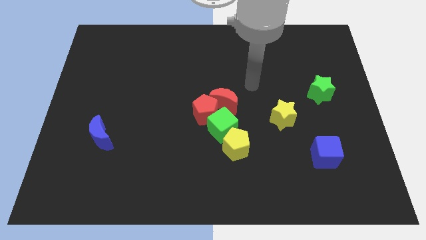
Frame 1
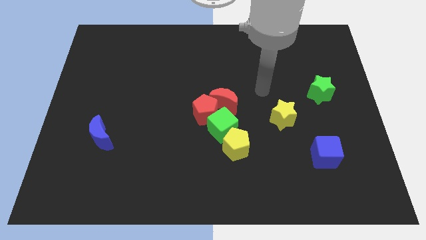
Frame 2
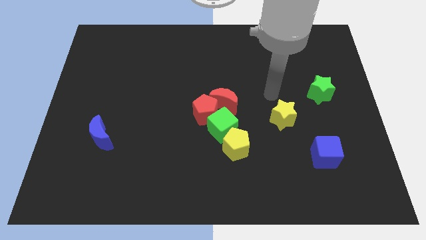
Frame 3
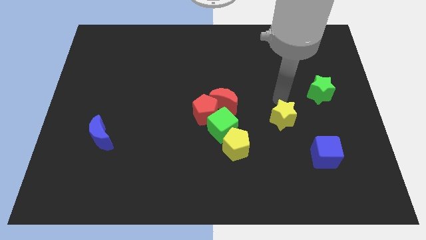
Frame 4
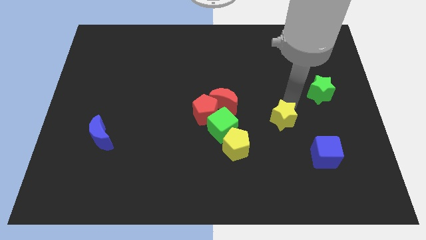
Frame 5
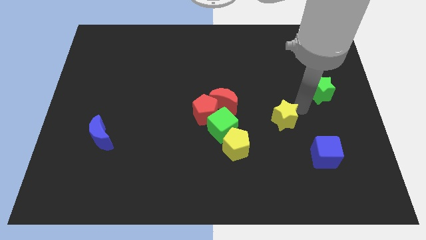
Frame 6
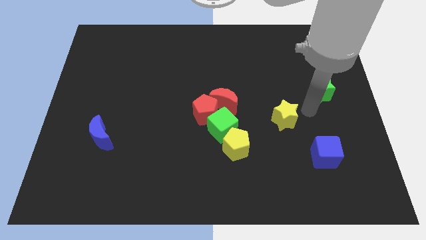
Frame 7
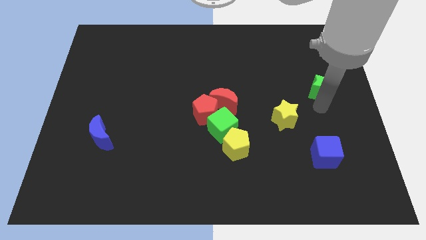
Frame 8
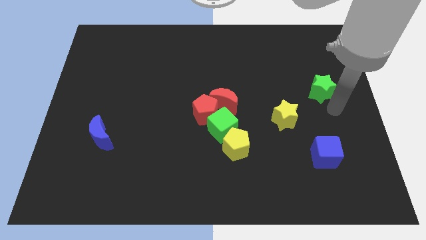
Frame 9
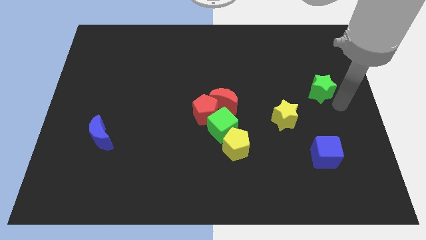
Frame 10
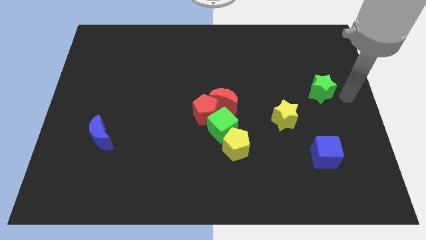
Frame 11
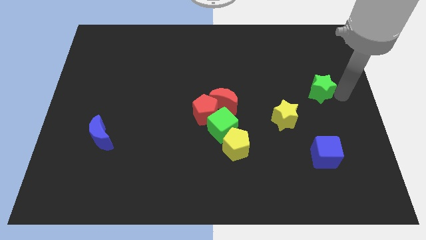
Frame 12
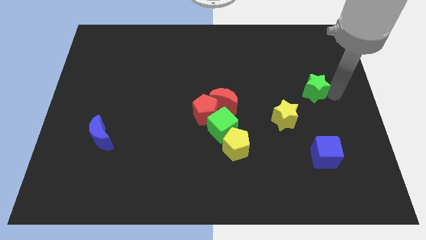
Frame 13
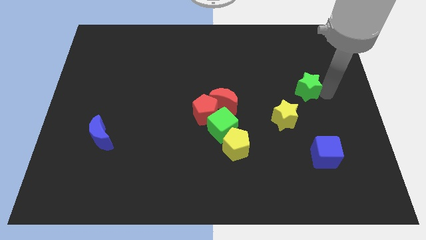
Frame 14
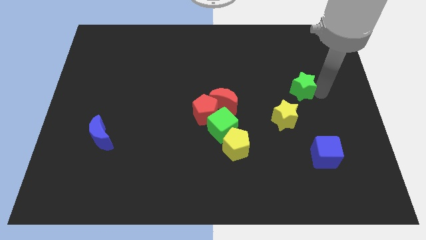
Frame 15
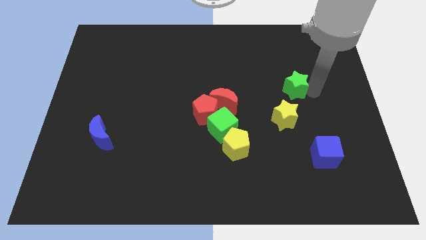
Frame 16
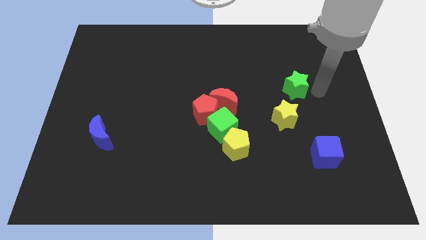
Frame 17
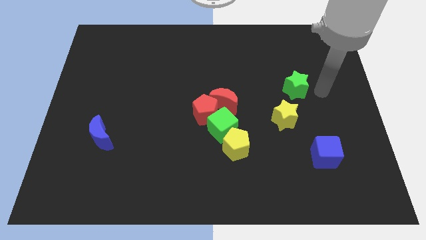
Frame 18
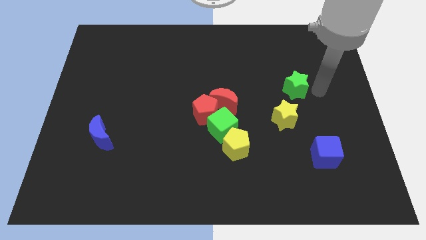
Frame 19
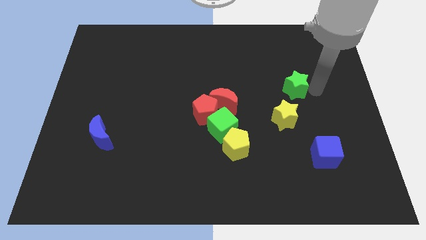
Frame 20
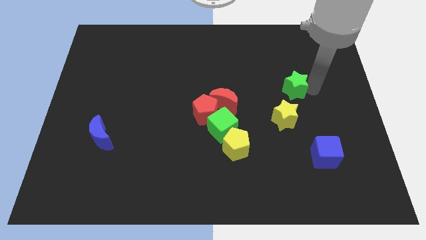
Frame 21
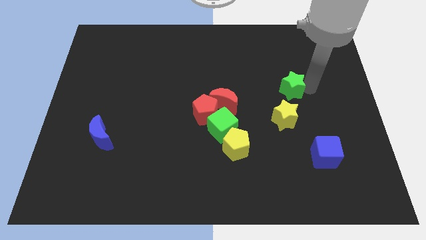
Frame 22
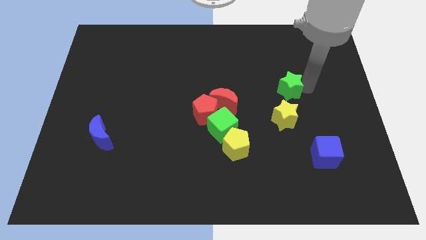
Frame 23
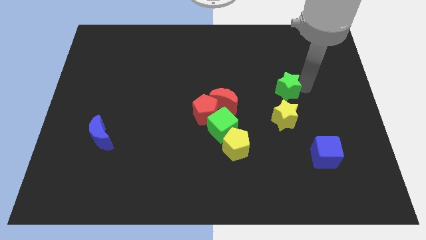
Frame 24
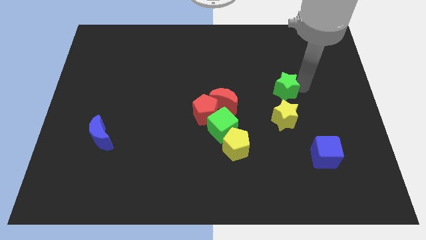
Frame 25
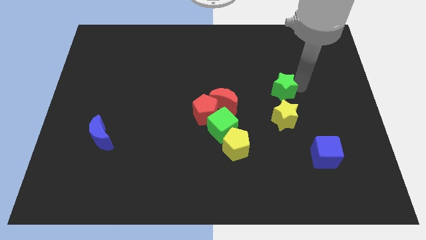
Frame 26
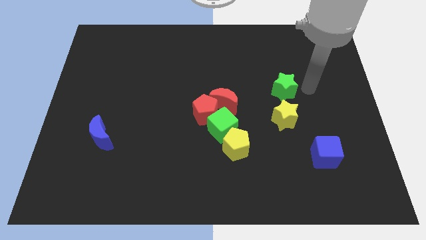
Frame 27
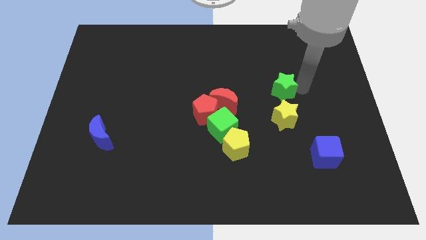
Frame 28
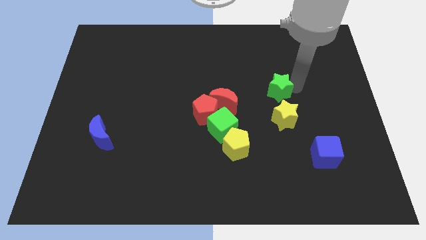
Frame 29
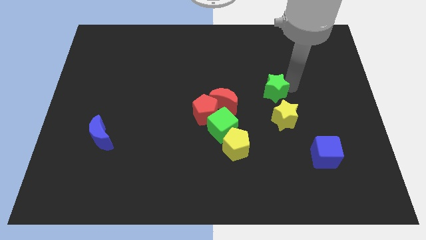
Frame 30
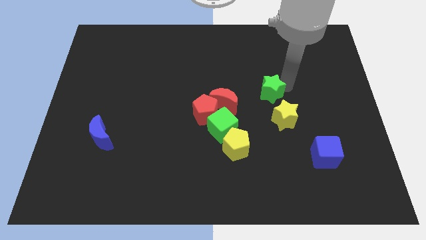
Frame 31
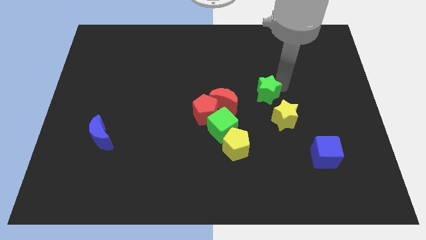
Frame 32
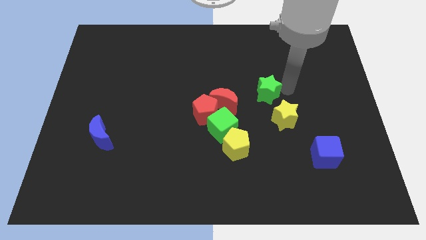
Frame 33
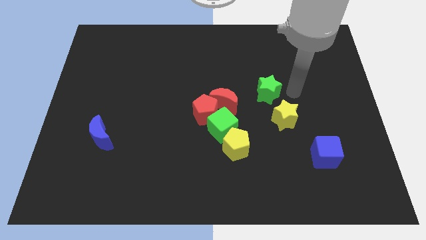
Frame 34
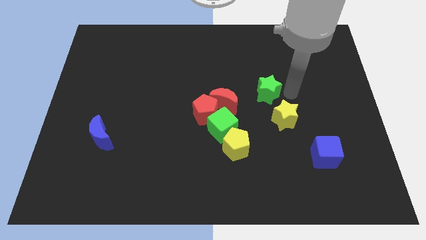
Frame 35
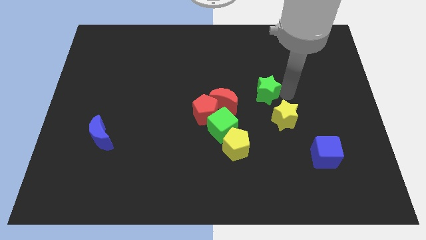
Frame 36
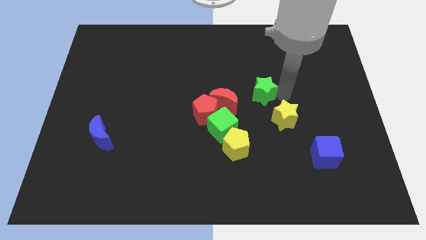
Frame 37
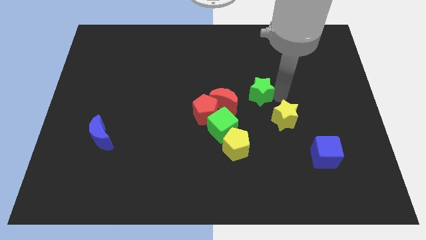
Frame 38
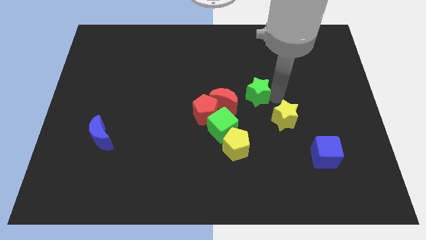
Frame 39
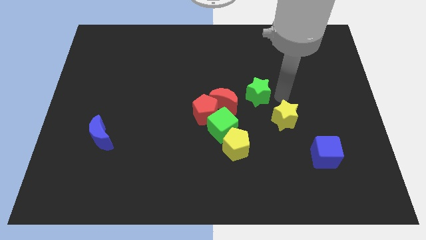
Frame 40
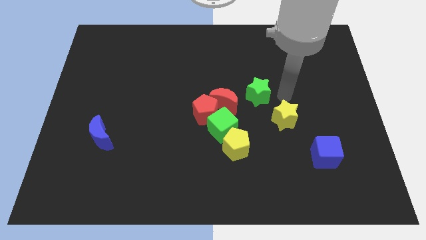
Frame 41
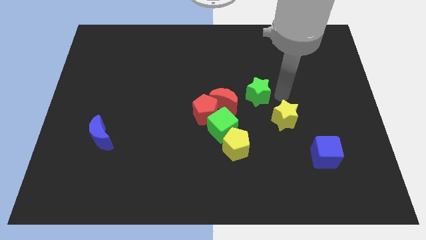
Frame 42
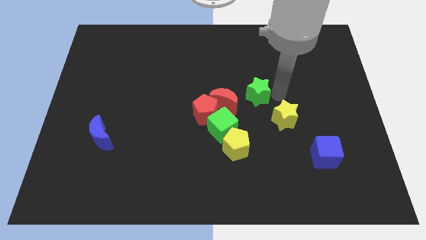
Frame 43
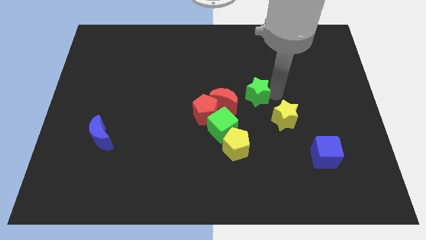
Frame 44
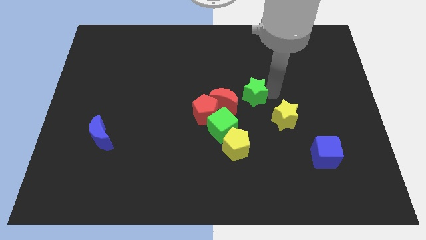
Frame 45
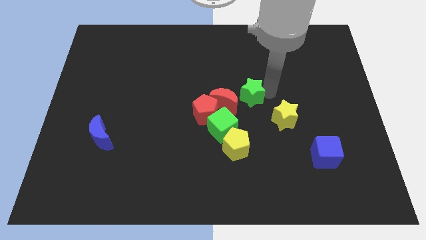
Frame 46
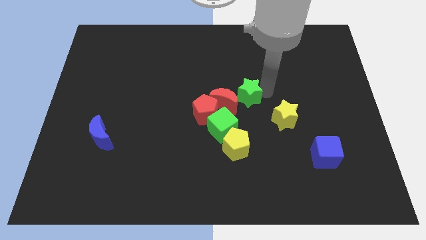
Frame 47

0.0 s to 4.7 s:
slide the green star to the top right side of the red pentagon

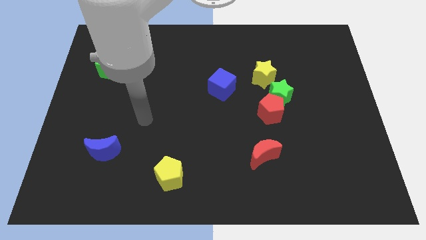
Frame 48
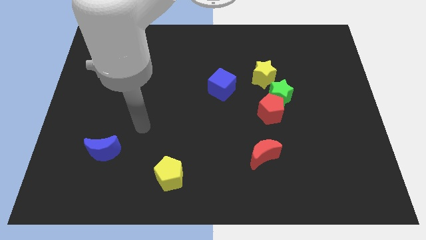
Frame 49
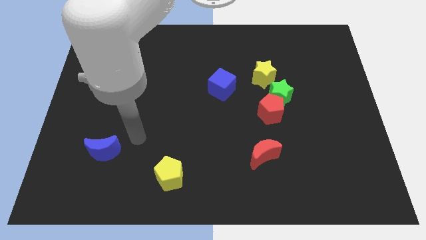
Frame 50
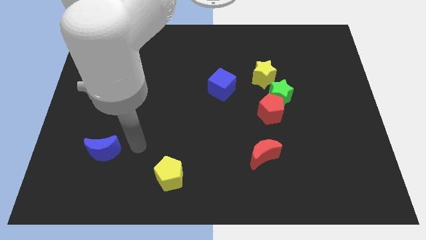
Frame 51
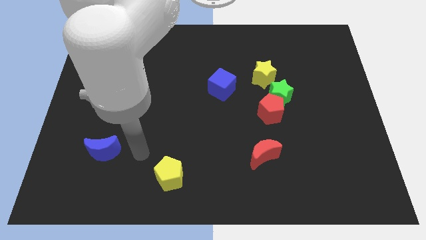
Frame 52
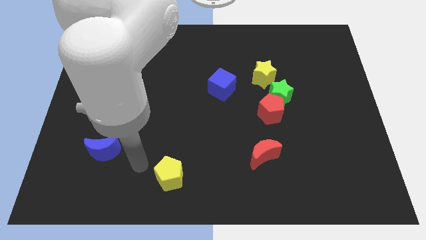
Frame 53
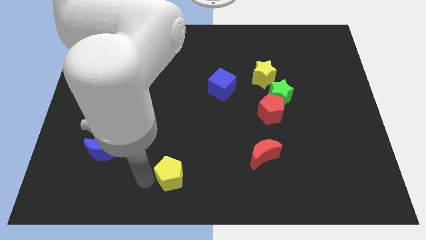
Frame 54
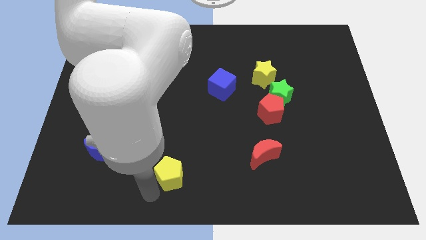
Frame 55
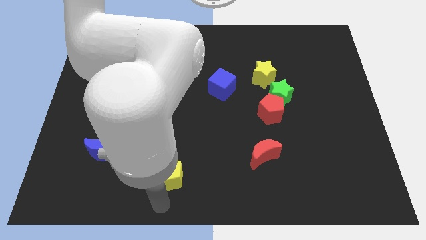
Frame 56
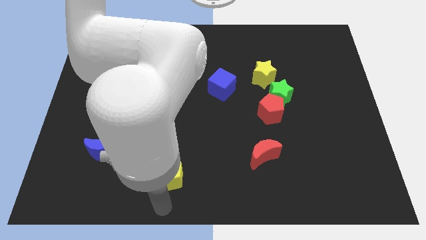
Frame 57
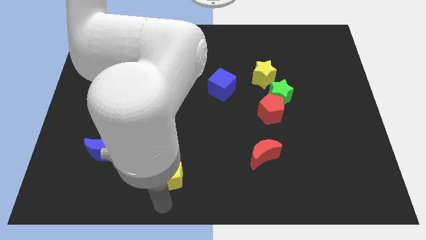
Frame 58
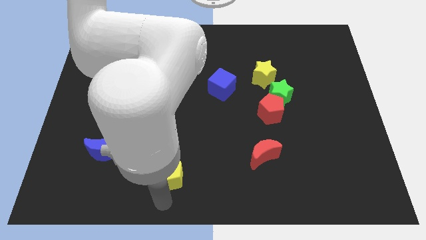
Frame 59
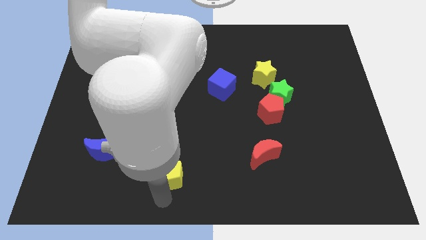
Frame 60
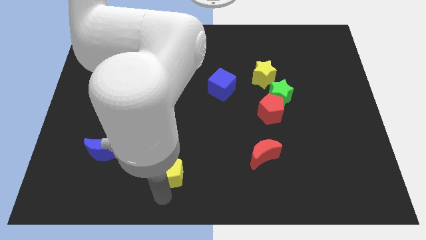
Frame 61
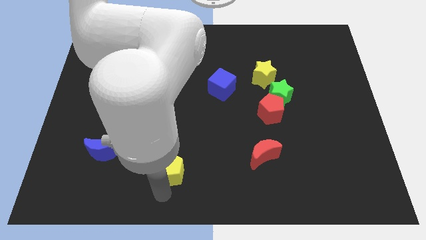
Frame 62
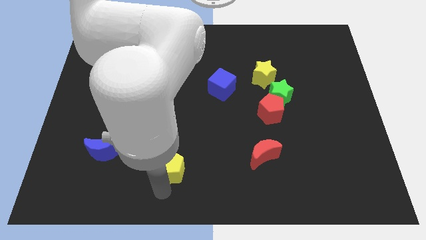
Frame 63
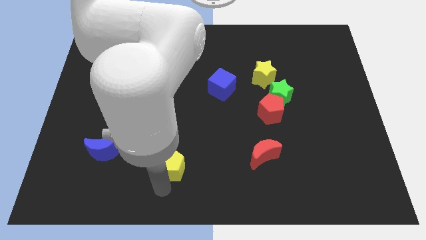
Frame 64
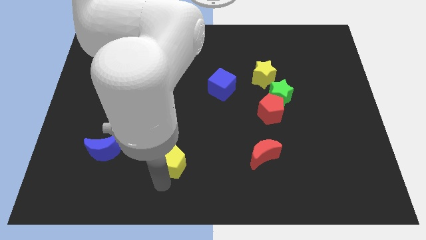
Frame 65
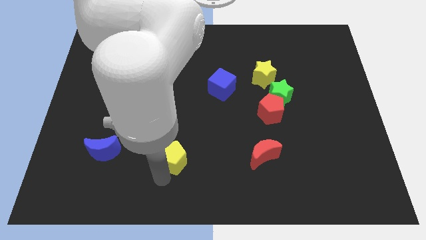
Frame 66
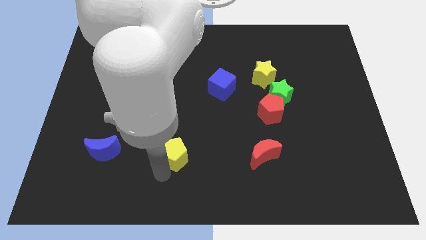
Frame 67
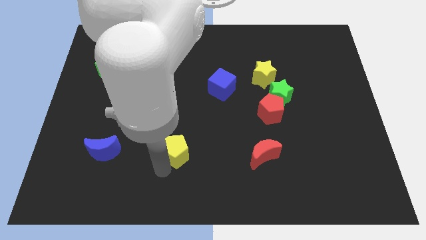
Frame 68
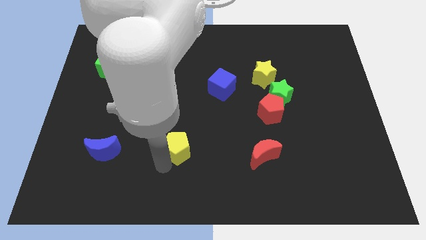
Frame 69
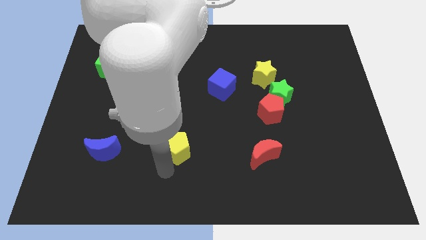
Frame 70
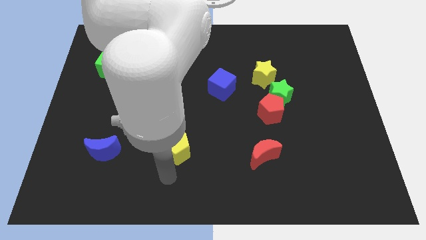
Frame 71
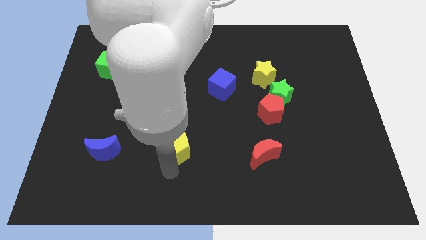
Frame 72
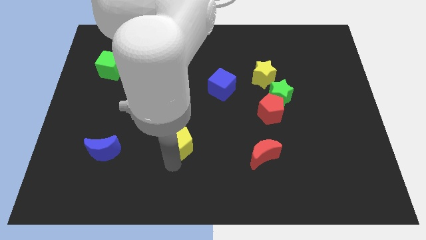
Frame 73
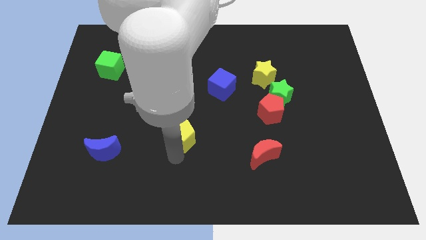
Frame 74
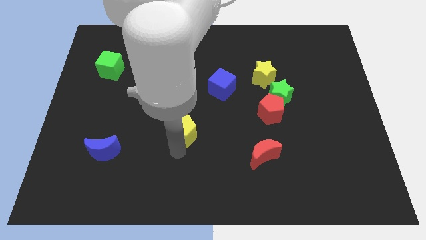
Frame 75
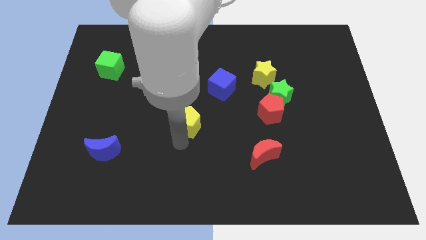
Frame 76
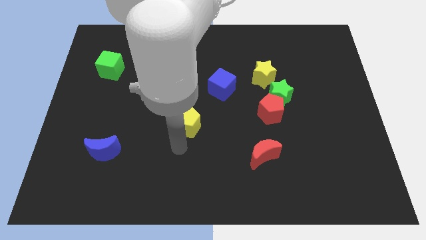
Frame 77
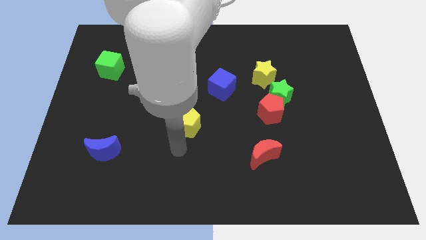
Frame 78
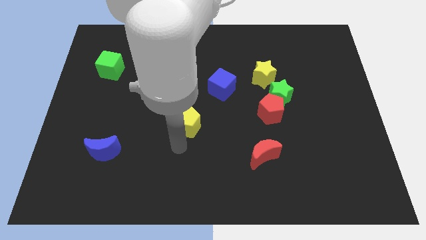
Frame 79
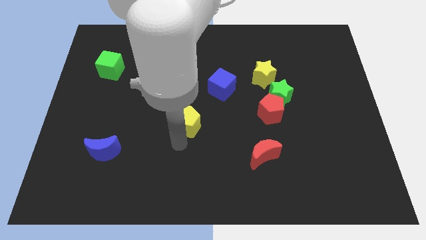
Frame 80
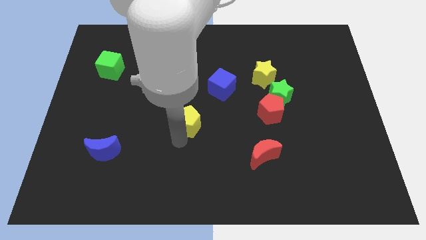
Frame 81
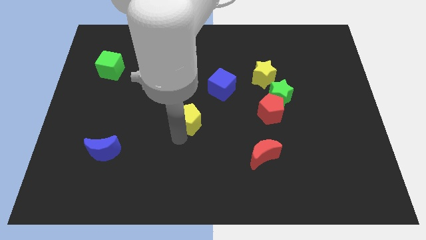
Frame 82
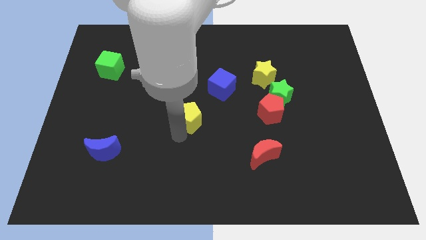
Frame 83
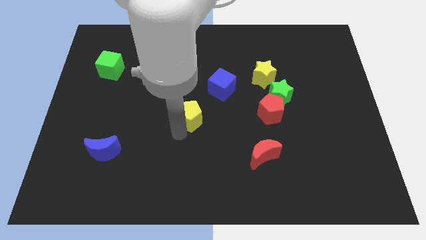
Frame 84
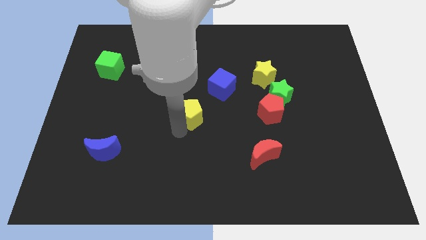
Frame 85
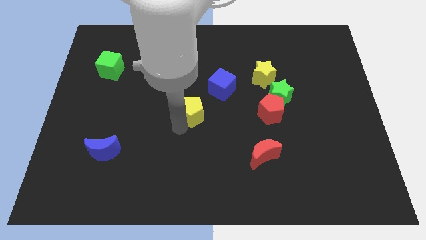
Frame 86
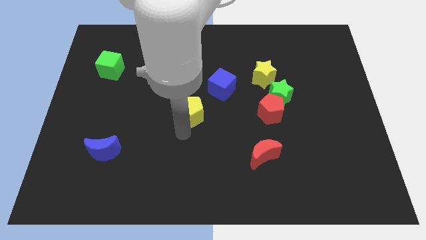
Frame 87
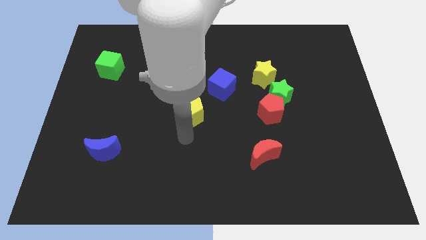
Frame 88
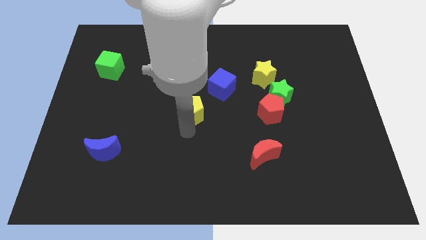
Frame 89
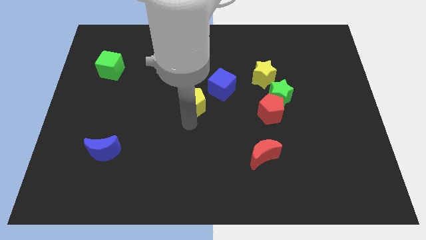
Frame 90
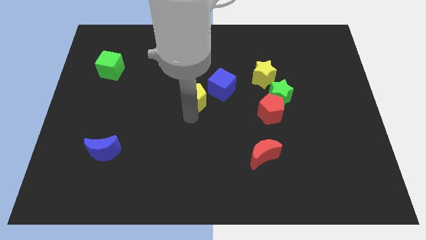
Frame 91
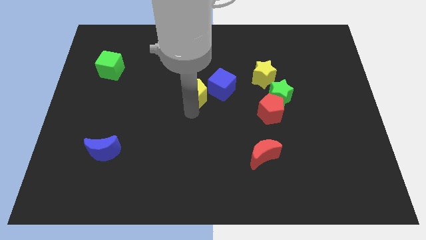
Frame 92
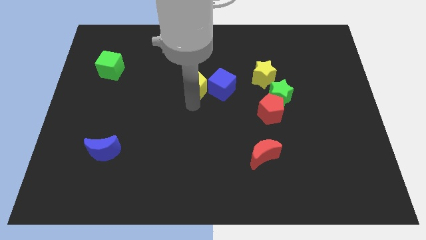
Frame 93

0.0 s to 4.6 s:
move the yellow pentagon diagonally up and to the left of the blue cube
